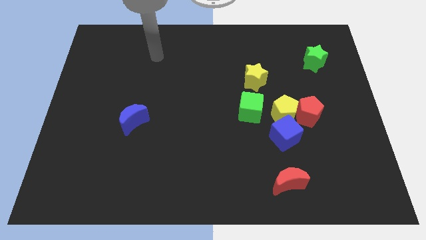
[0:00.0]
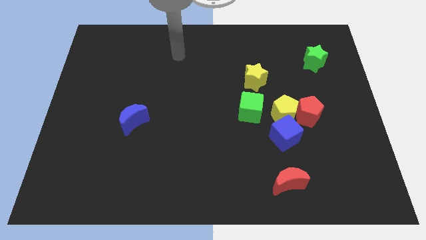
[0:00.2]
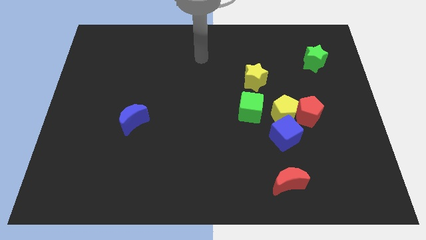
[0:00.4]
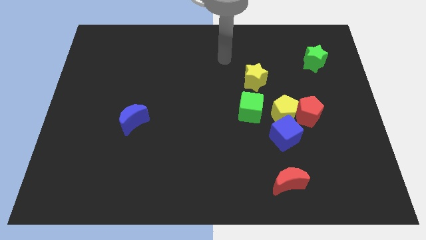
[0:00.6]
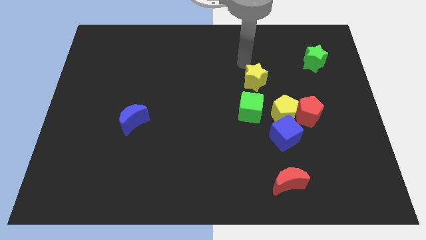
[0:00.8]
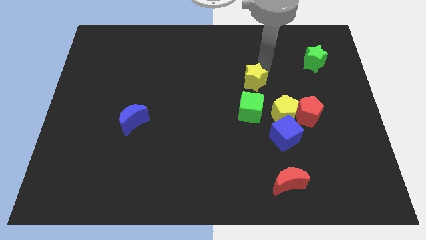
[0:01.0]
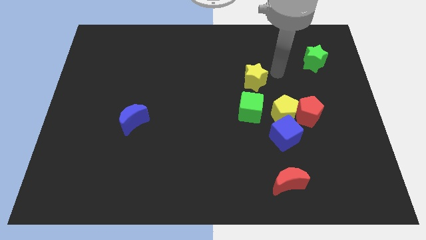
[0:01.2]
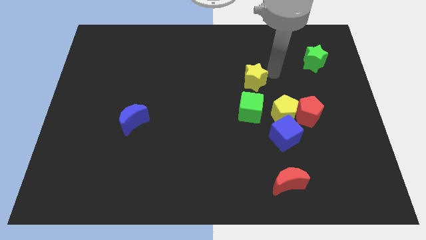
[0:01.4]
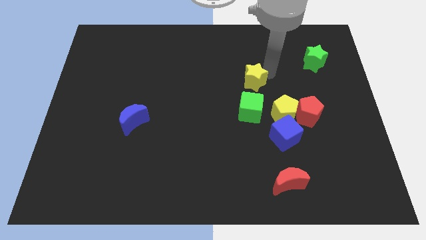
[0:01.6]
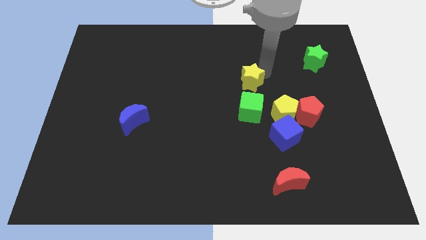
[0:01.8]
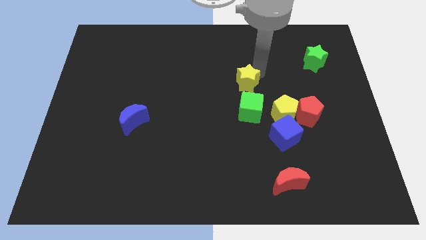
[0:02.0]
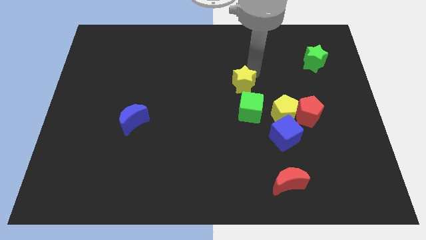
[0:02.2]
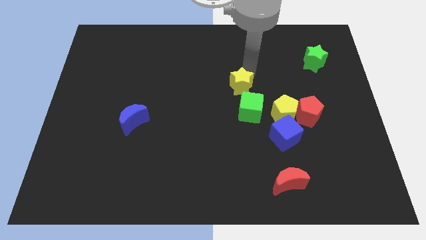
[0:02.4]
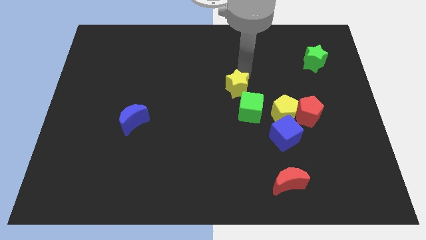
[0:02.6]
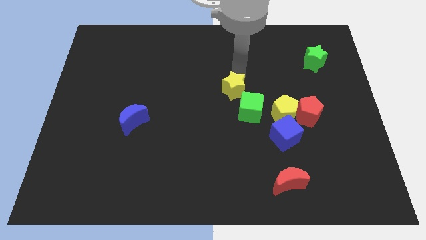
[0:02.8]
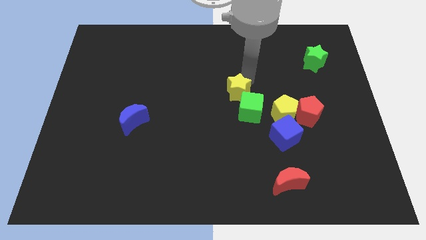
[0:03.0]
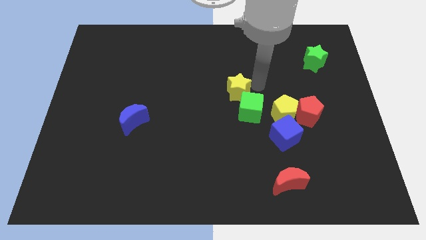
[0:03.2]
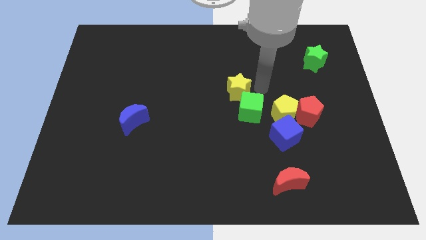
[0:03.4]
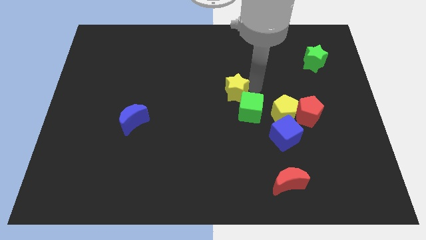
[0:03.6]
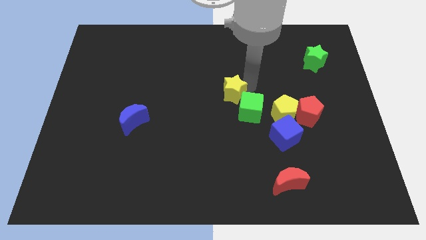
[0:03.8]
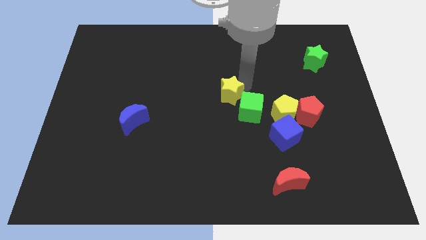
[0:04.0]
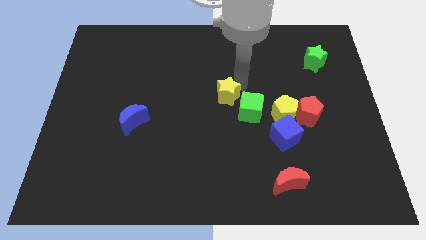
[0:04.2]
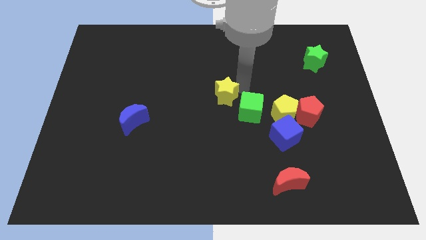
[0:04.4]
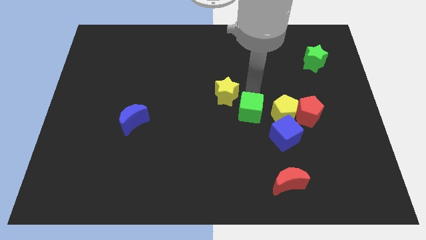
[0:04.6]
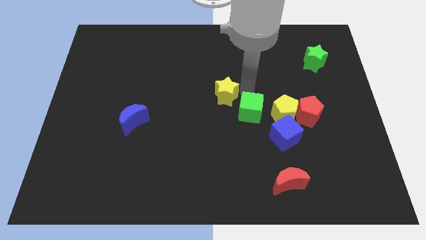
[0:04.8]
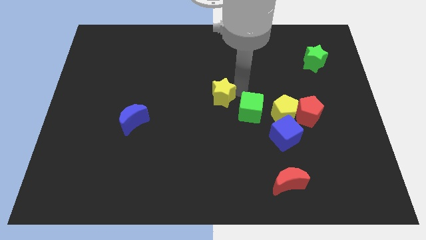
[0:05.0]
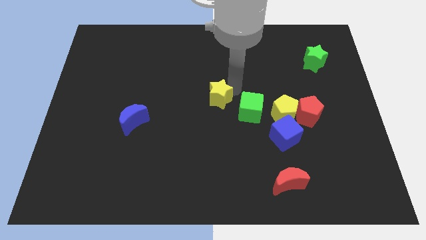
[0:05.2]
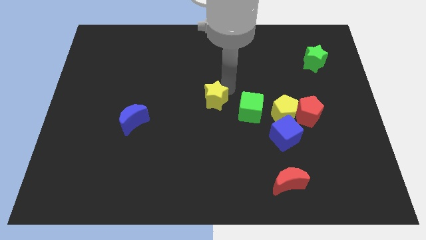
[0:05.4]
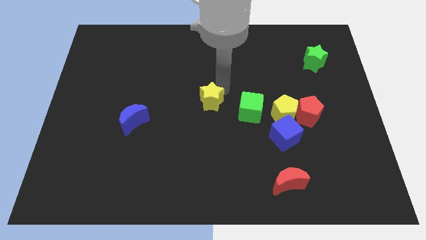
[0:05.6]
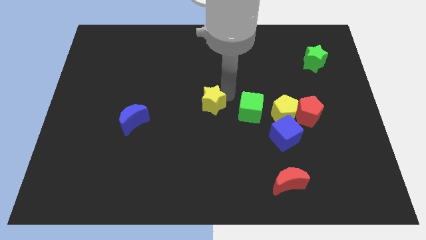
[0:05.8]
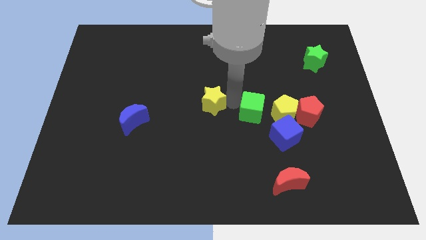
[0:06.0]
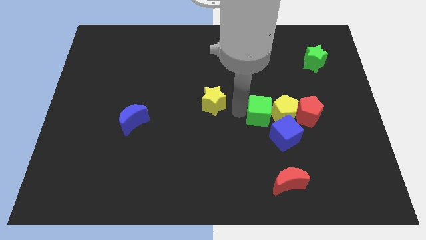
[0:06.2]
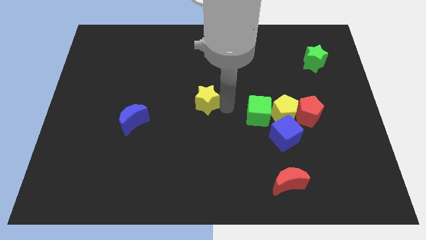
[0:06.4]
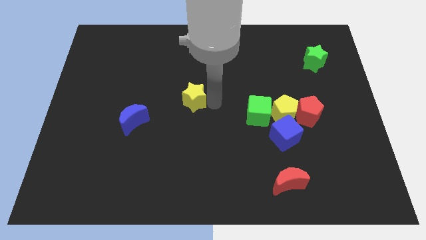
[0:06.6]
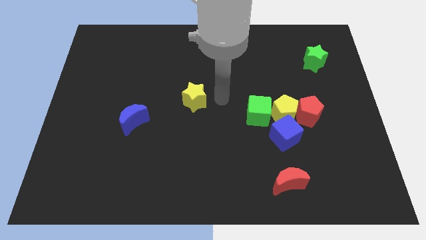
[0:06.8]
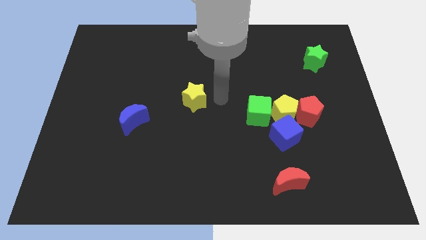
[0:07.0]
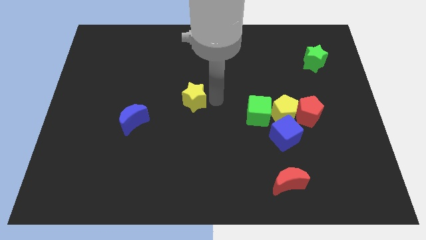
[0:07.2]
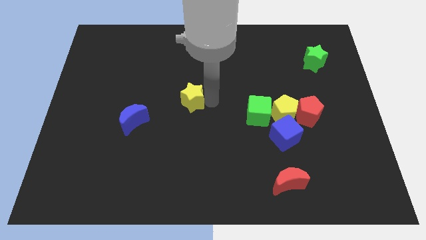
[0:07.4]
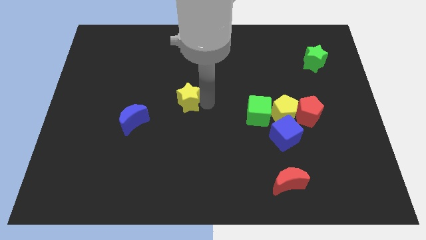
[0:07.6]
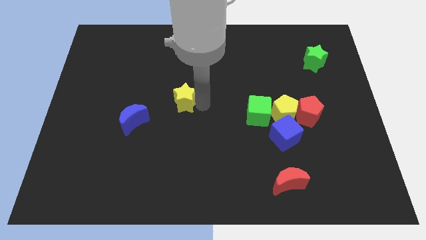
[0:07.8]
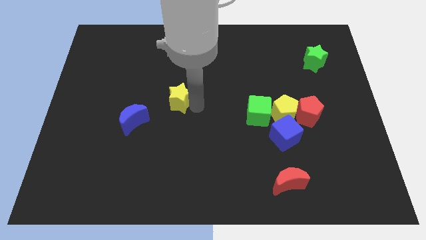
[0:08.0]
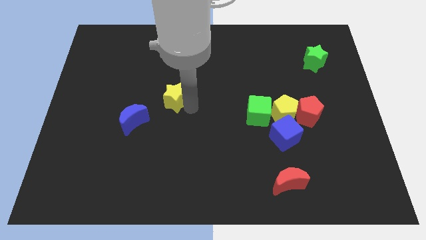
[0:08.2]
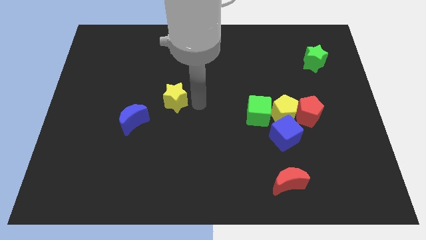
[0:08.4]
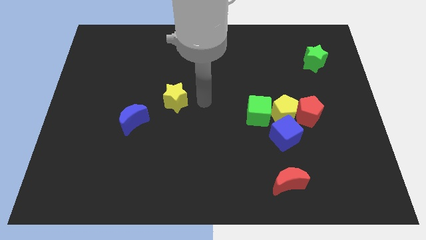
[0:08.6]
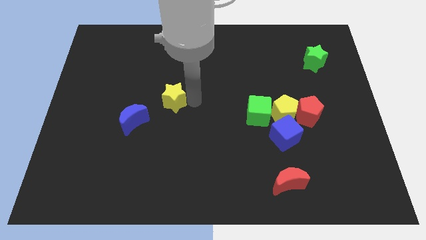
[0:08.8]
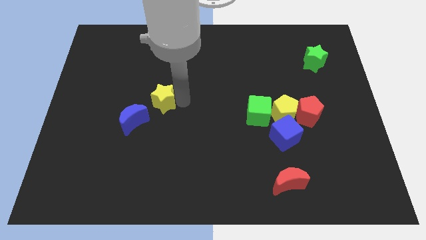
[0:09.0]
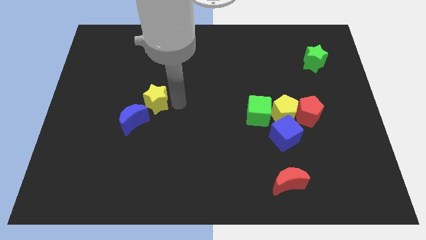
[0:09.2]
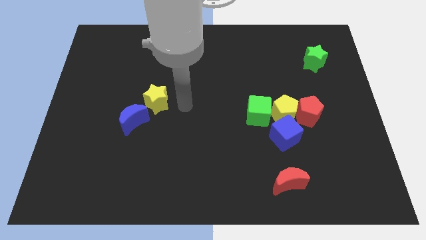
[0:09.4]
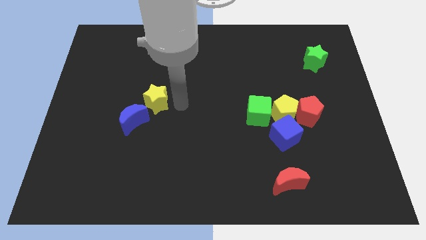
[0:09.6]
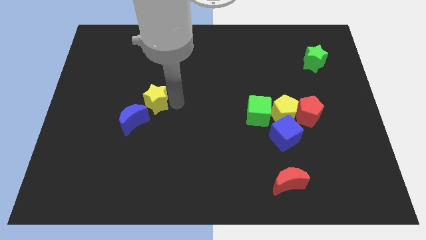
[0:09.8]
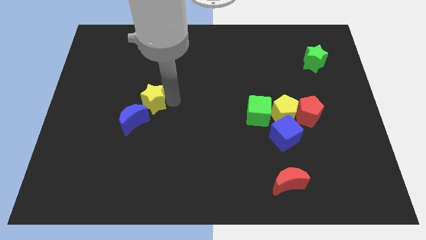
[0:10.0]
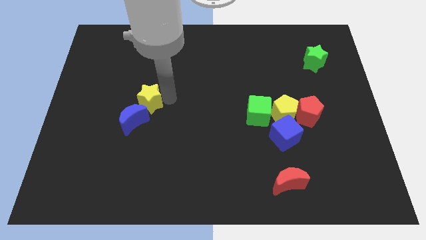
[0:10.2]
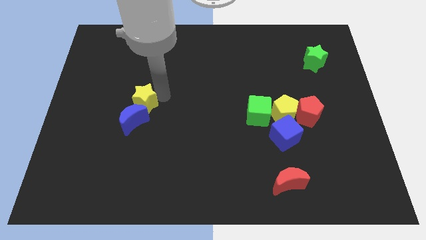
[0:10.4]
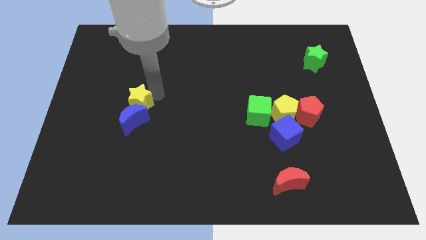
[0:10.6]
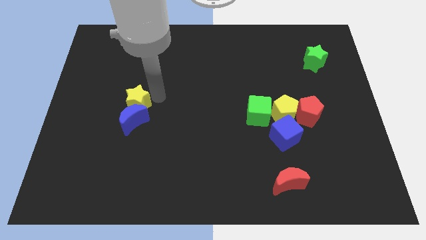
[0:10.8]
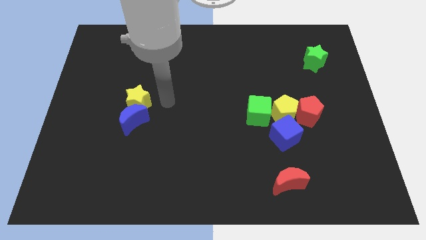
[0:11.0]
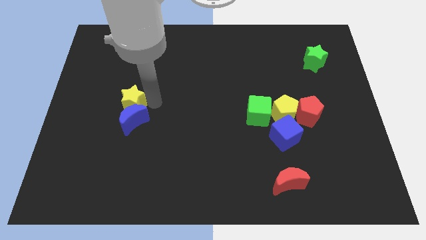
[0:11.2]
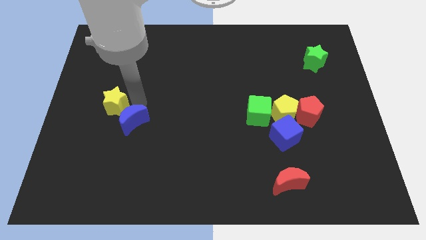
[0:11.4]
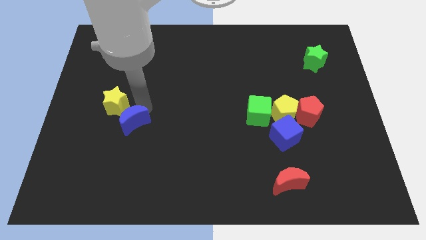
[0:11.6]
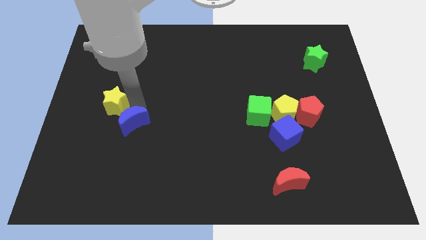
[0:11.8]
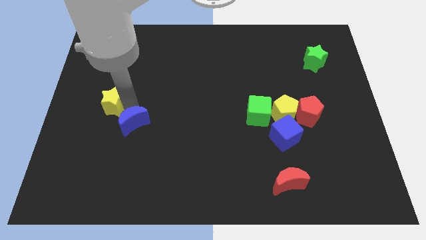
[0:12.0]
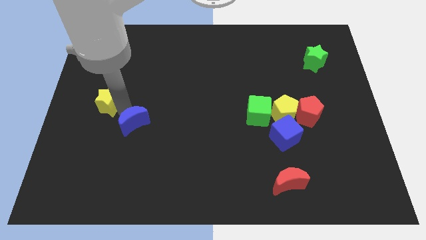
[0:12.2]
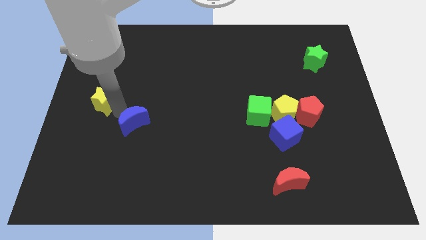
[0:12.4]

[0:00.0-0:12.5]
push the yellow star to the left side of the board

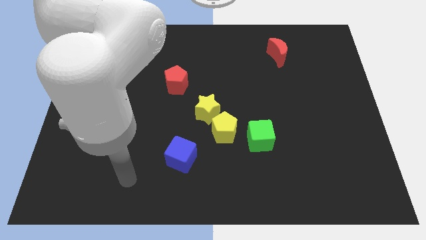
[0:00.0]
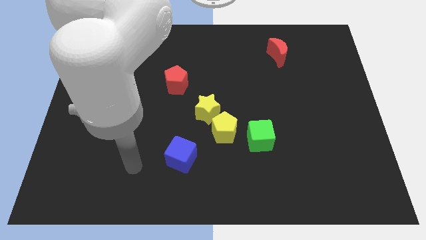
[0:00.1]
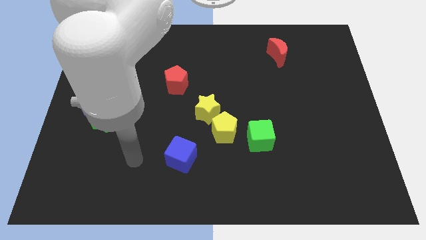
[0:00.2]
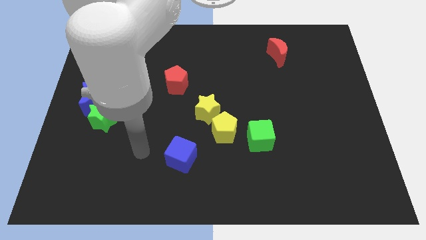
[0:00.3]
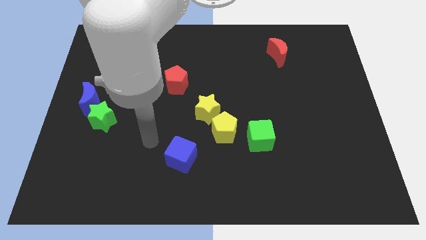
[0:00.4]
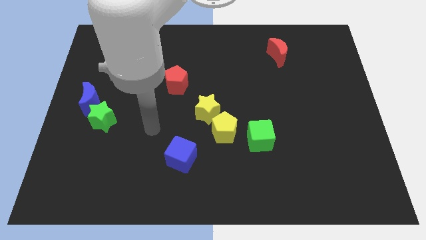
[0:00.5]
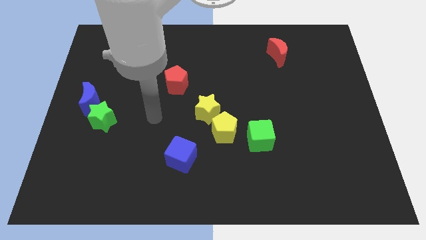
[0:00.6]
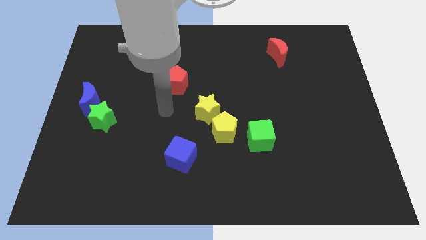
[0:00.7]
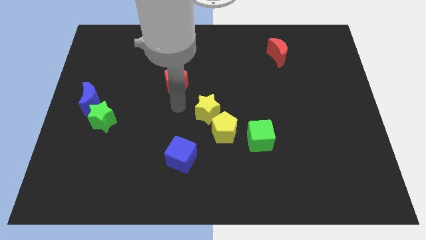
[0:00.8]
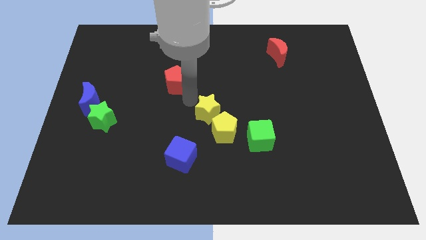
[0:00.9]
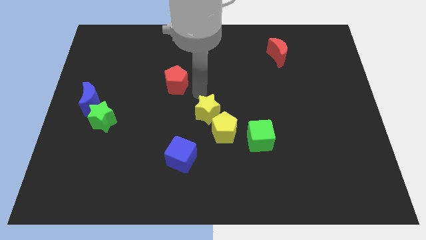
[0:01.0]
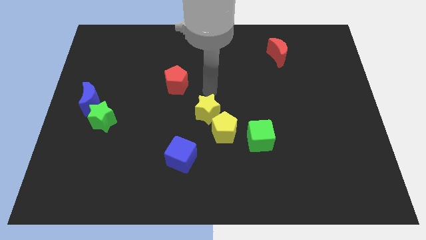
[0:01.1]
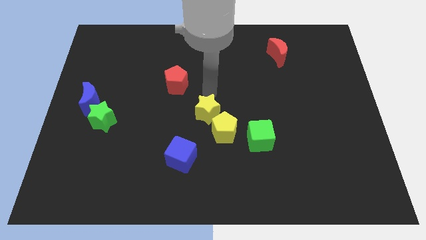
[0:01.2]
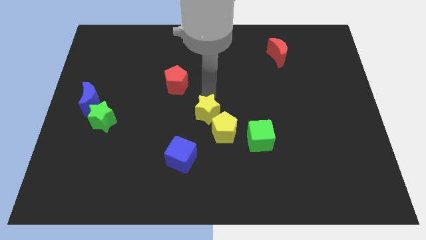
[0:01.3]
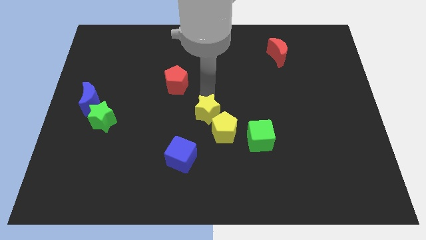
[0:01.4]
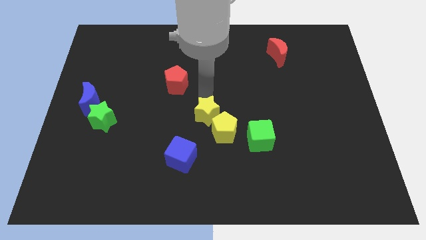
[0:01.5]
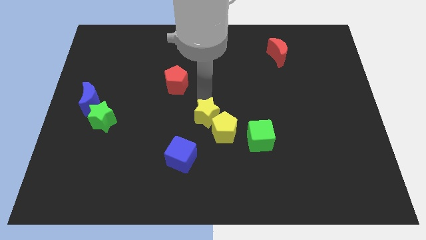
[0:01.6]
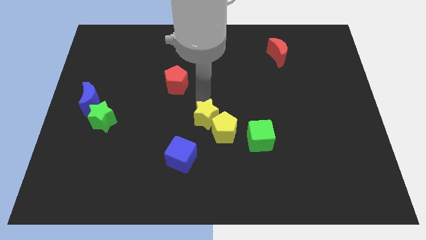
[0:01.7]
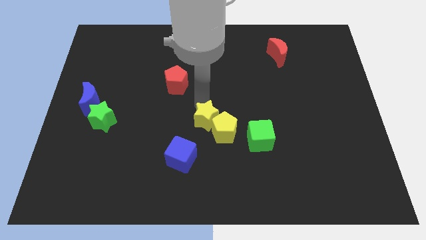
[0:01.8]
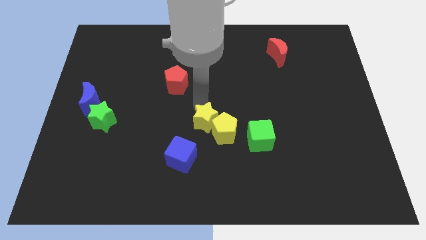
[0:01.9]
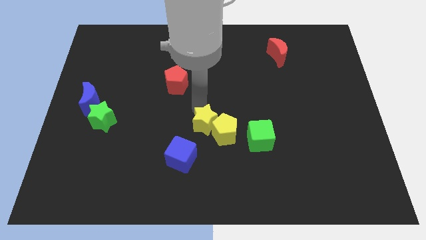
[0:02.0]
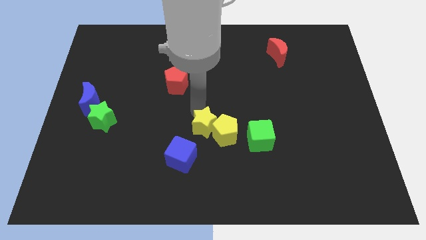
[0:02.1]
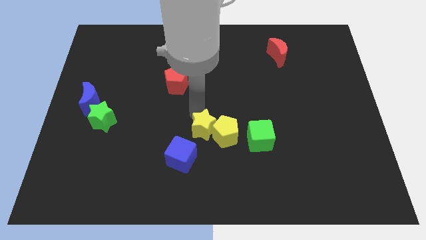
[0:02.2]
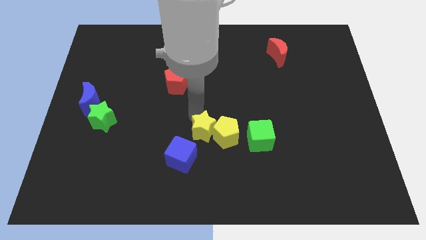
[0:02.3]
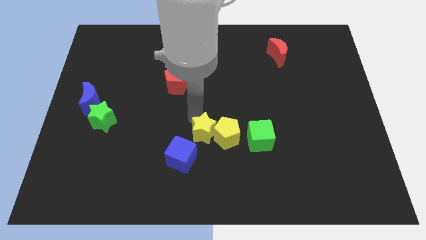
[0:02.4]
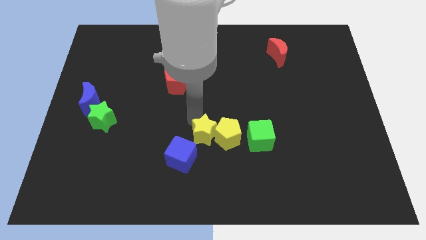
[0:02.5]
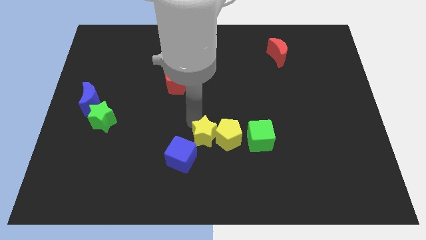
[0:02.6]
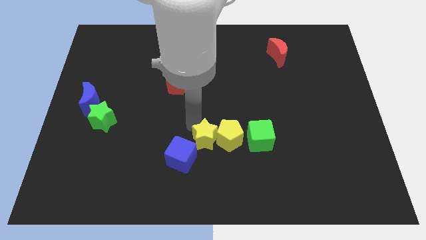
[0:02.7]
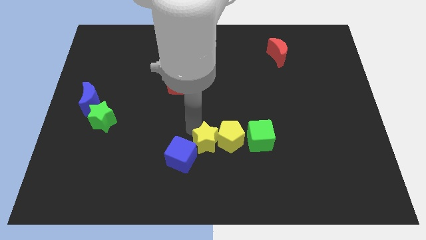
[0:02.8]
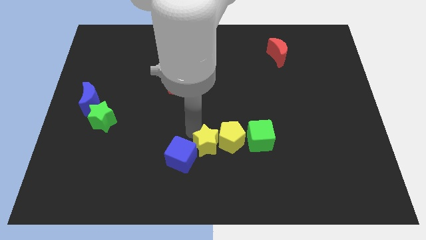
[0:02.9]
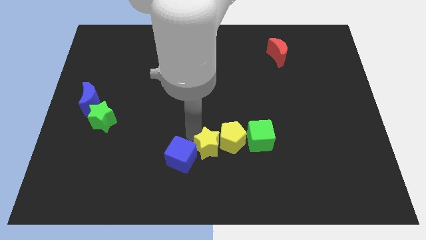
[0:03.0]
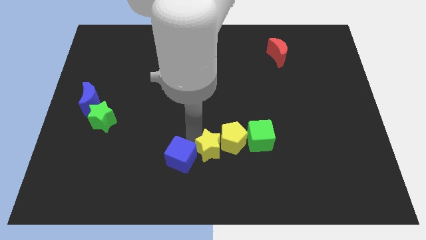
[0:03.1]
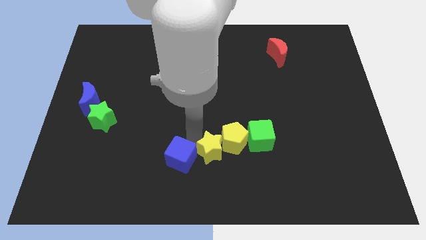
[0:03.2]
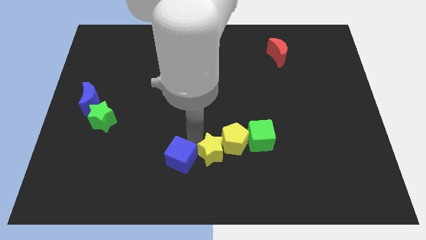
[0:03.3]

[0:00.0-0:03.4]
move the yellow star to the bottom side
